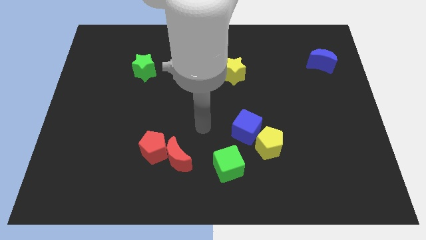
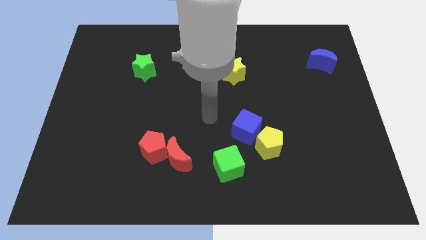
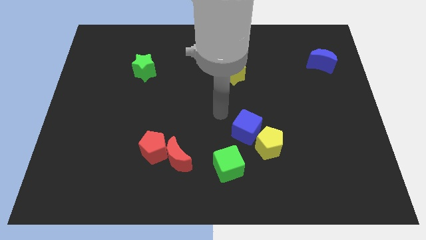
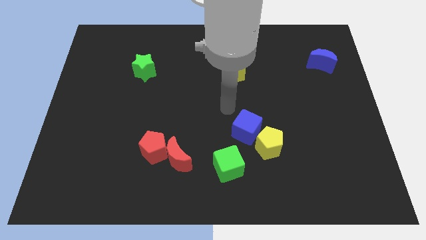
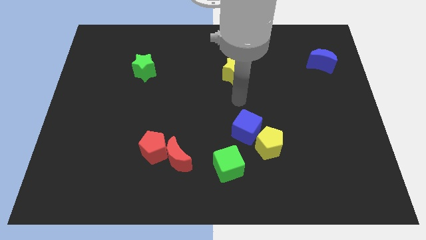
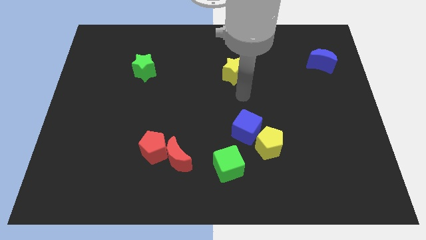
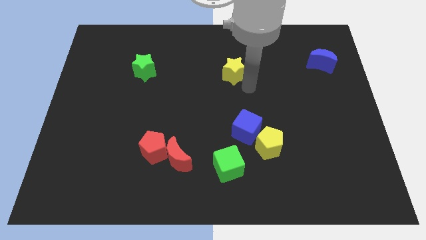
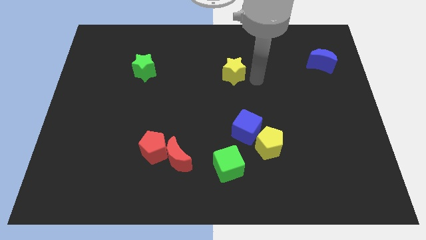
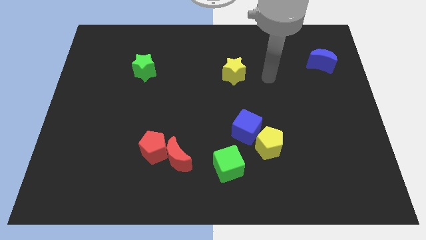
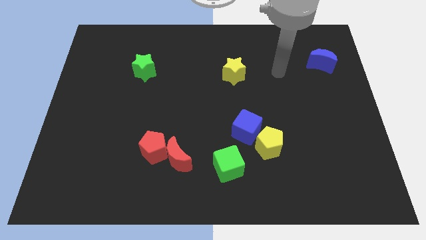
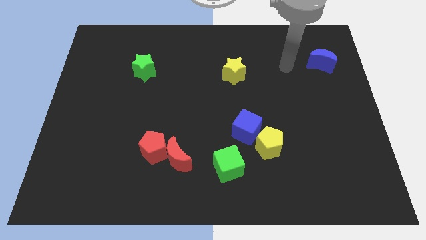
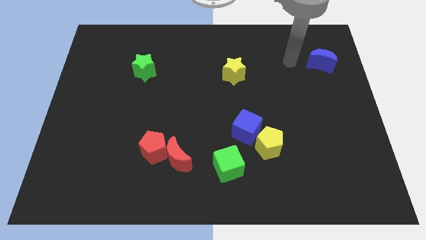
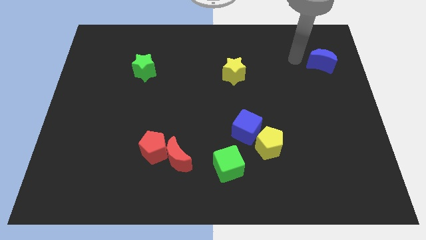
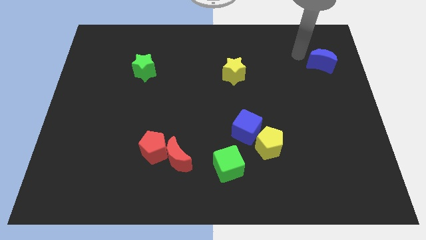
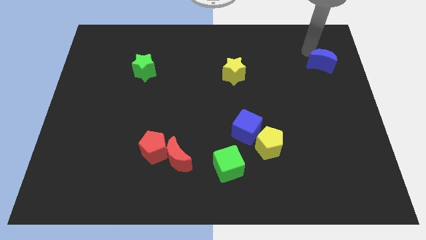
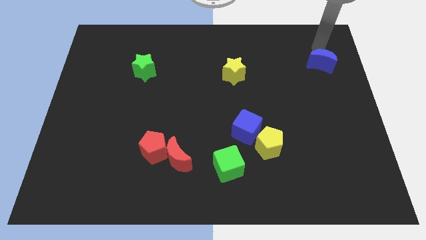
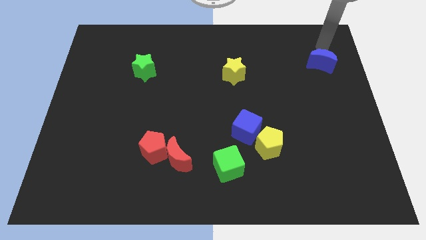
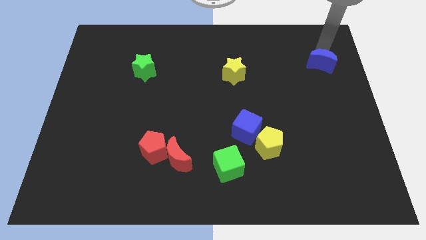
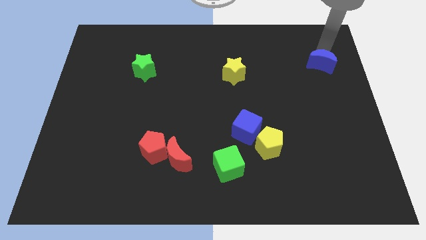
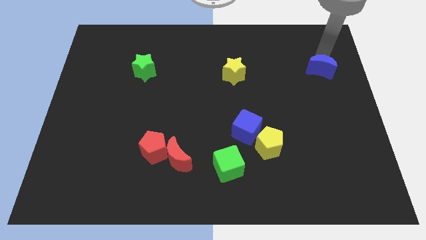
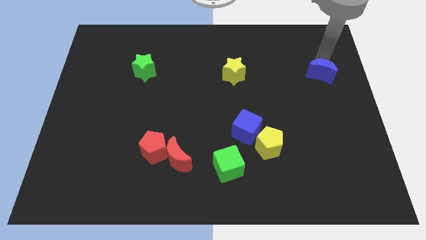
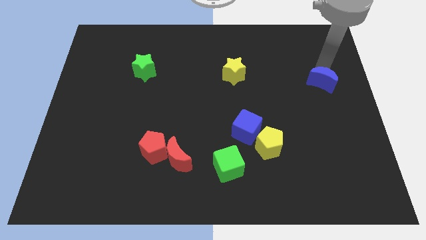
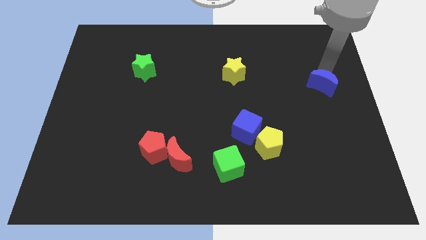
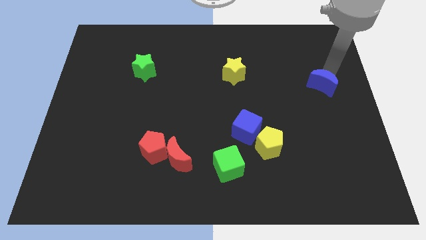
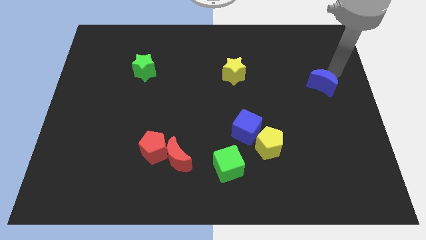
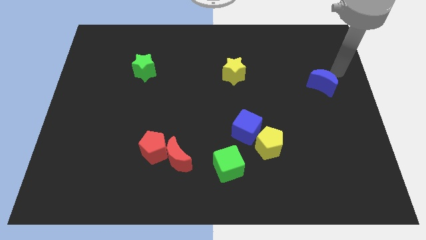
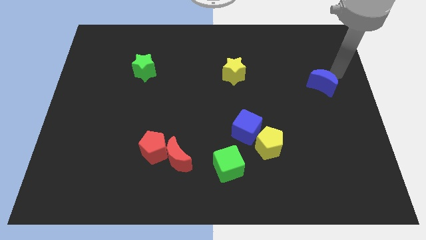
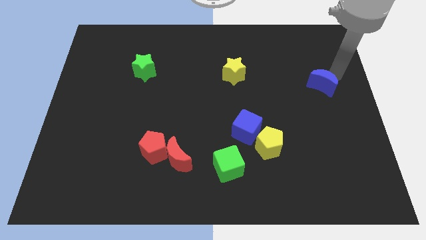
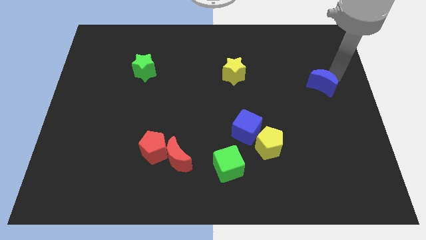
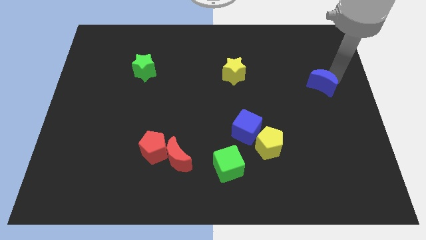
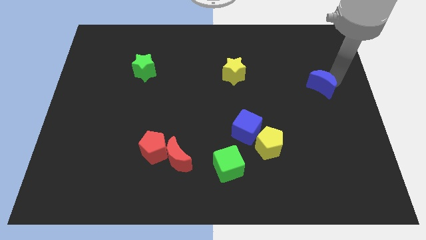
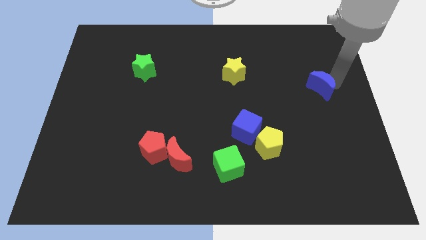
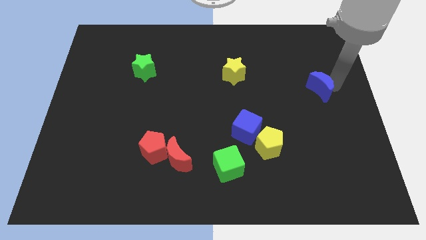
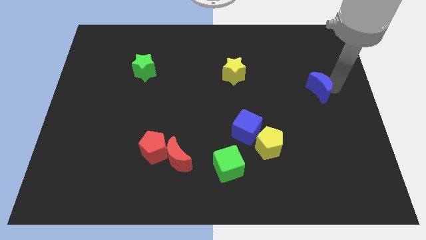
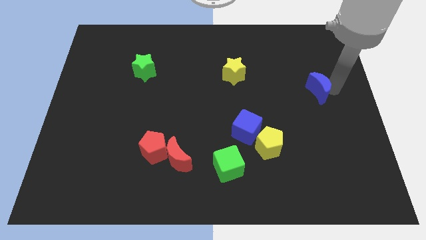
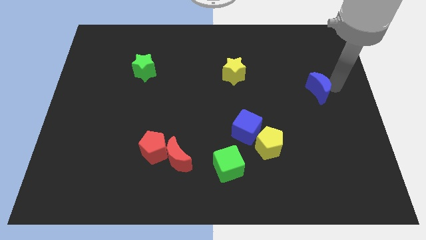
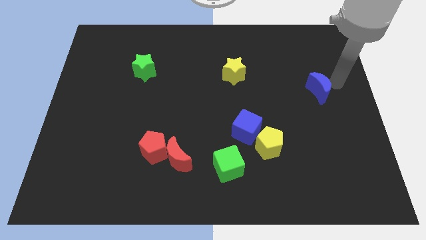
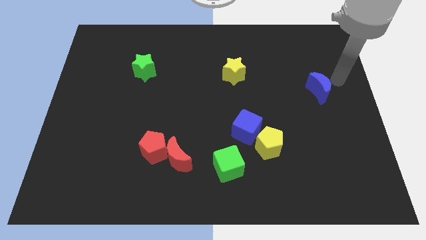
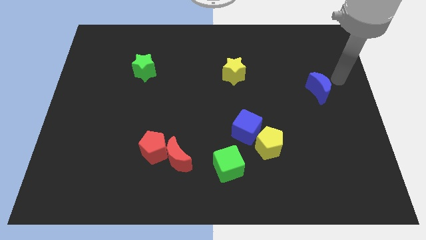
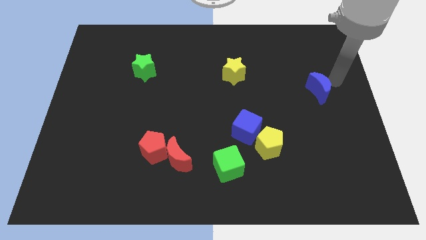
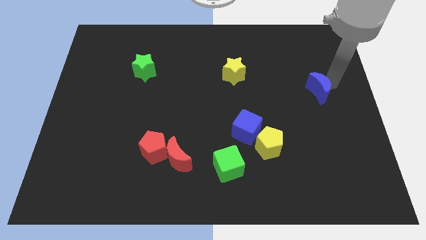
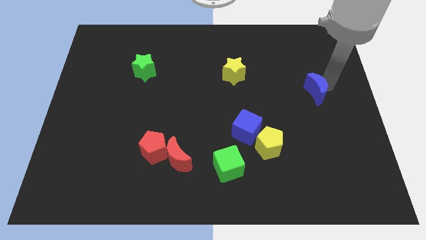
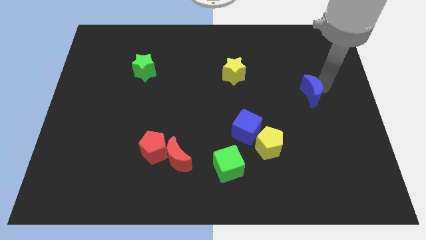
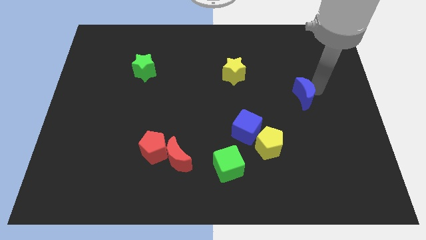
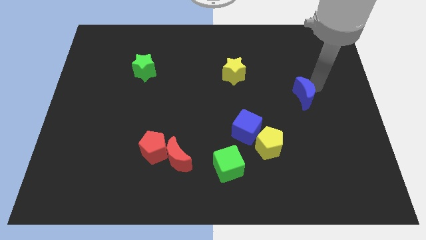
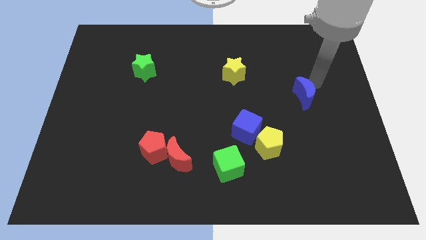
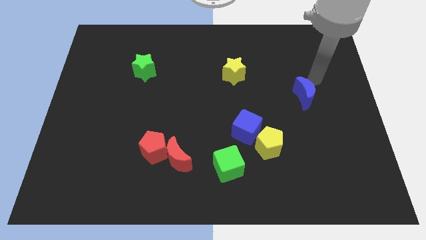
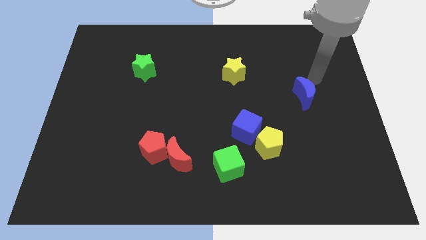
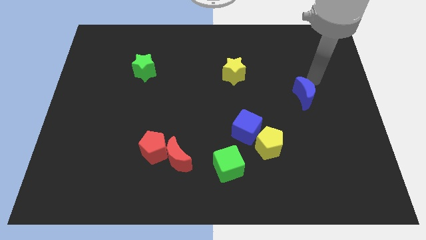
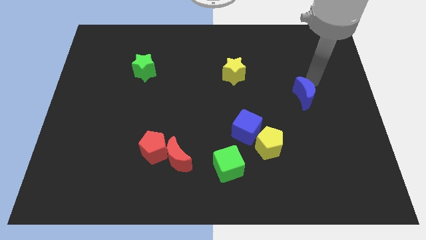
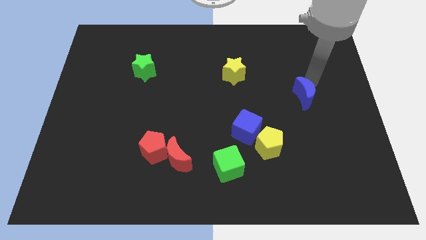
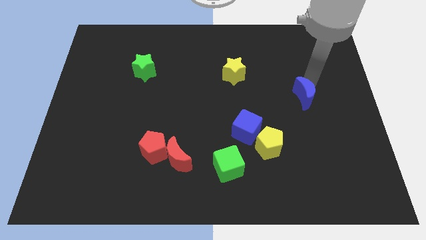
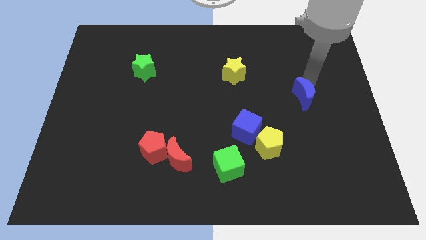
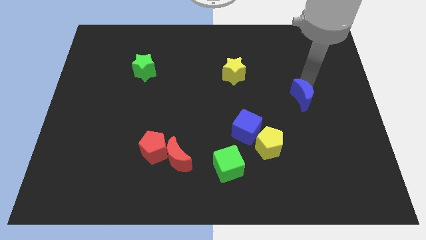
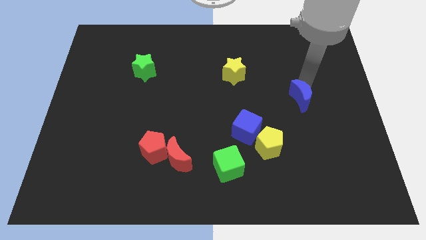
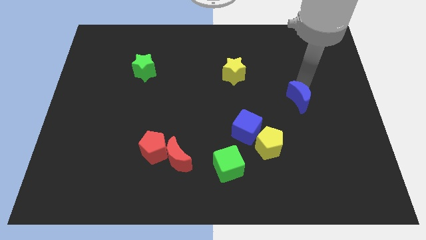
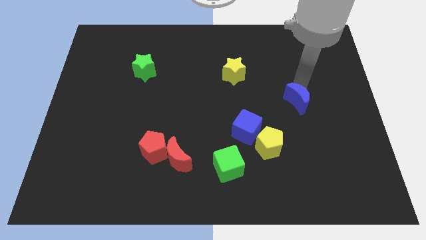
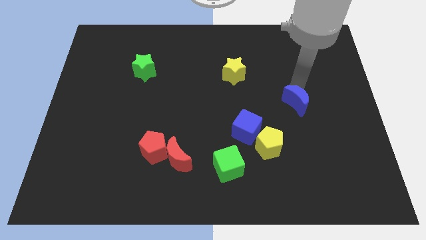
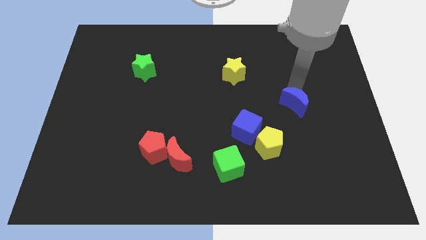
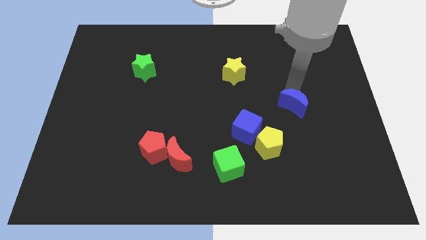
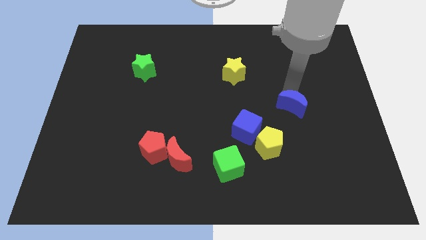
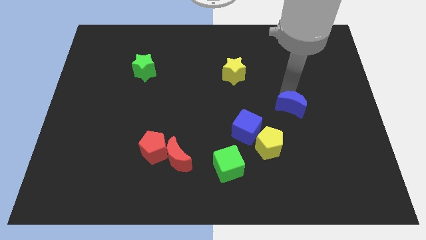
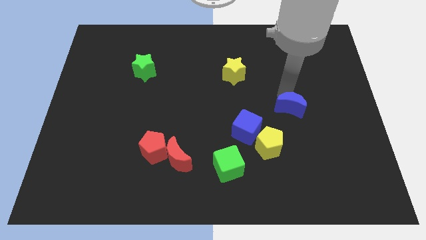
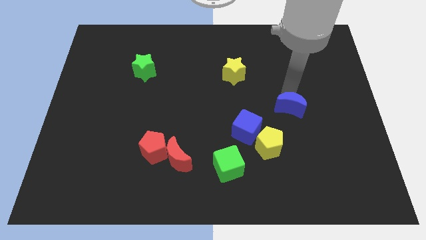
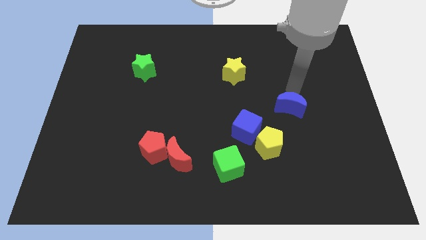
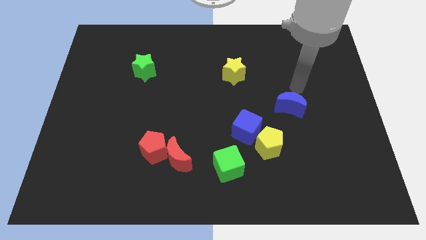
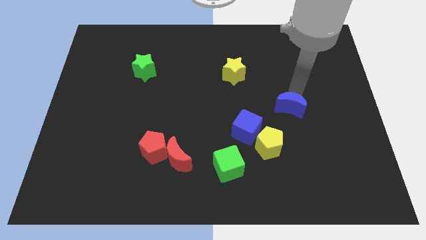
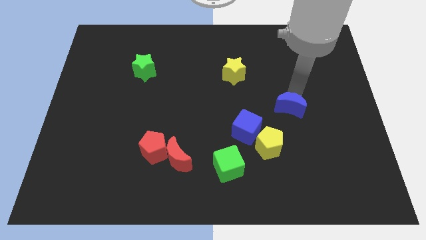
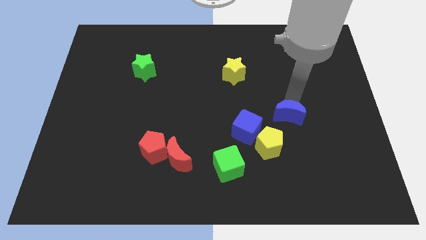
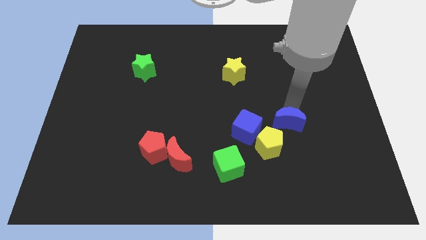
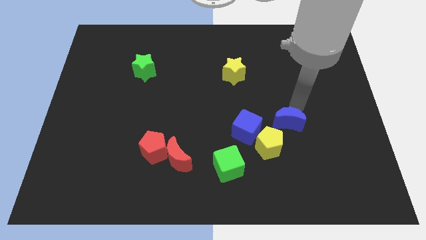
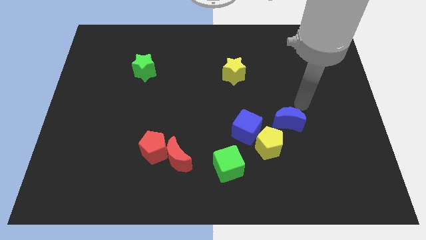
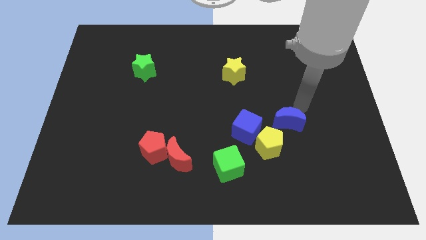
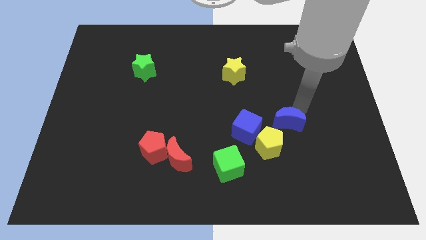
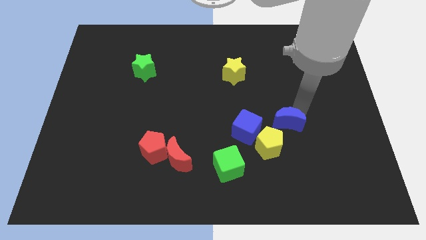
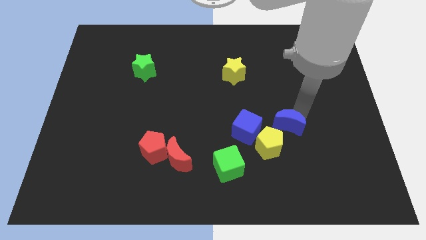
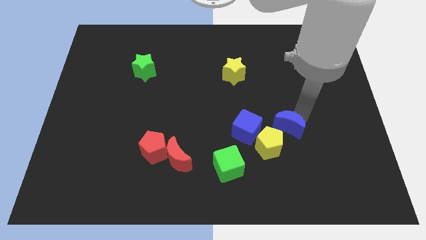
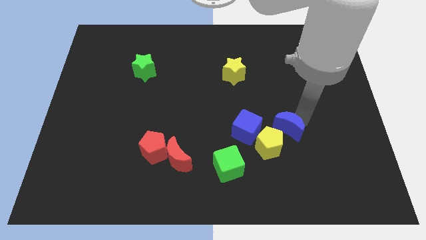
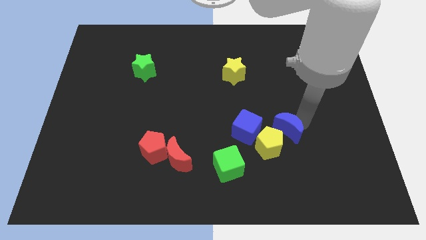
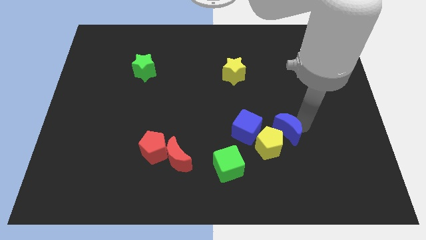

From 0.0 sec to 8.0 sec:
put the blue moon close to the yellow pentagon
